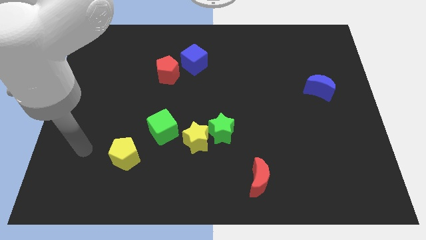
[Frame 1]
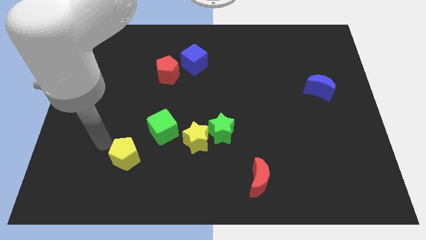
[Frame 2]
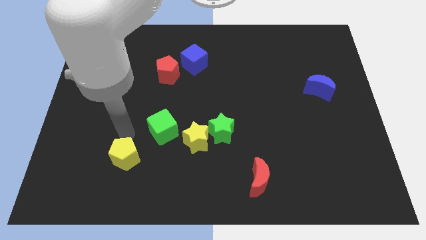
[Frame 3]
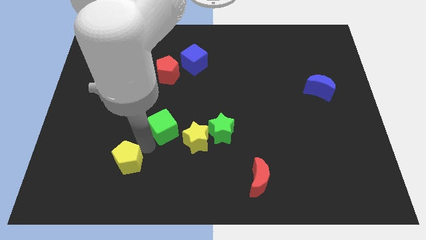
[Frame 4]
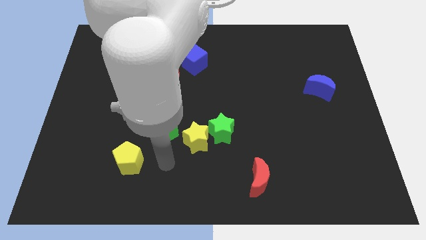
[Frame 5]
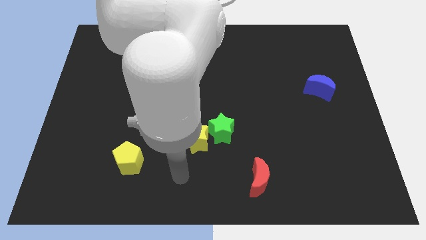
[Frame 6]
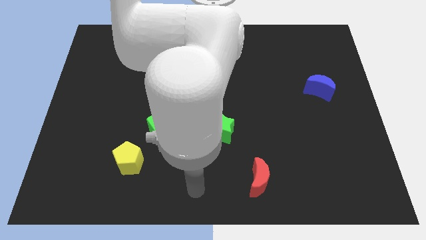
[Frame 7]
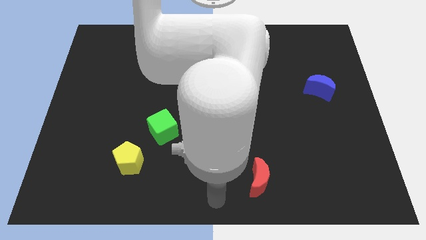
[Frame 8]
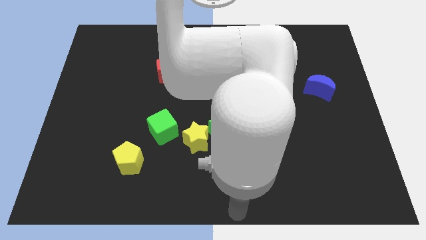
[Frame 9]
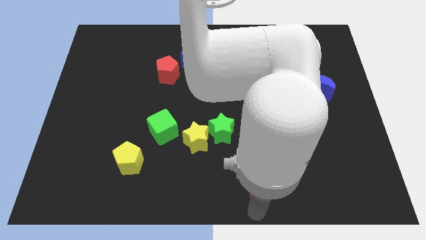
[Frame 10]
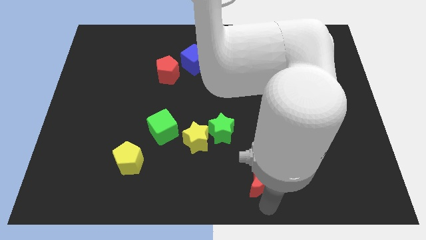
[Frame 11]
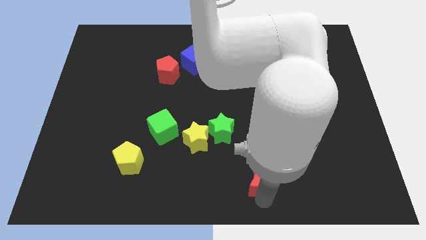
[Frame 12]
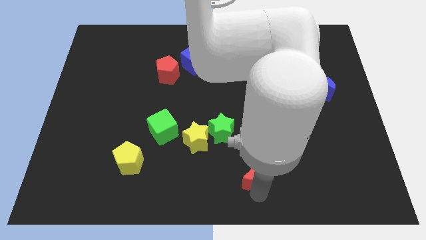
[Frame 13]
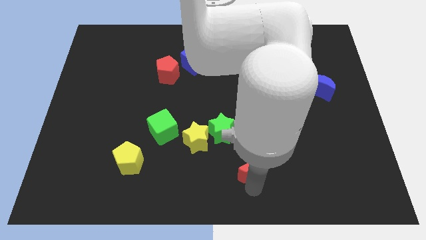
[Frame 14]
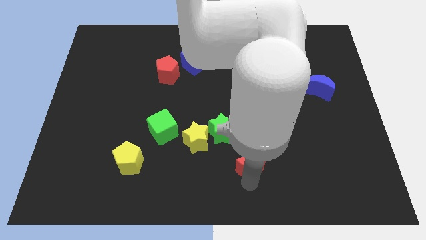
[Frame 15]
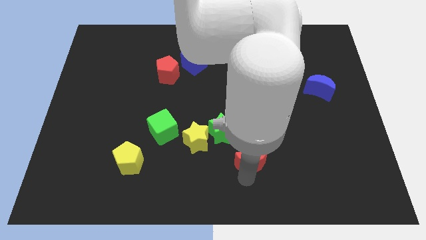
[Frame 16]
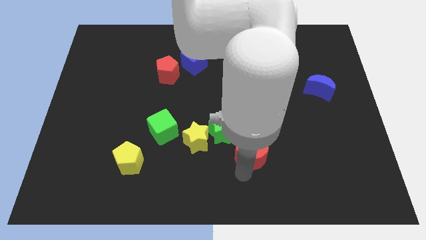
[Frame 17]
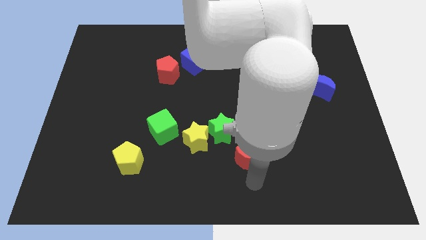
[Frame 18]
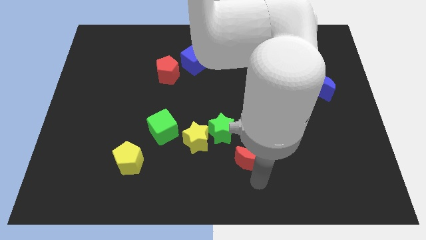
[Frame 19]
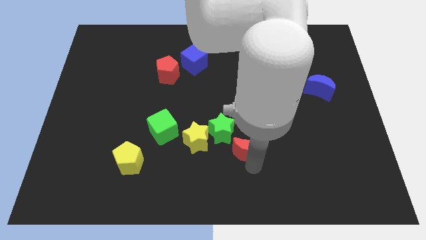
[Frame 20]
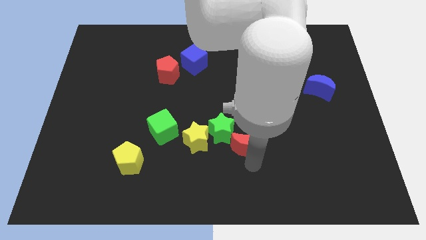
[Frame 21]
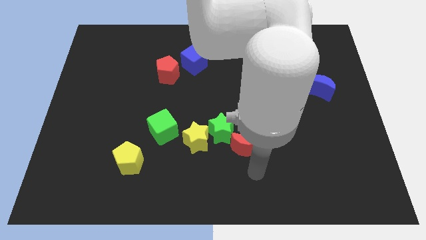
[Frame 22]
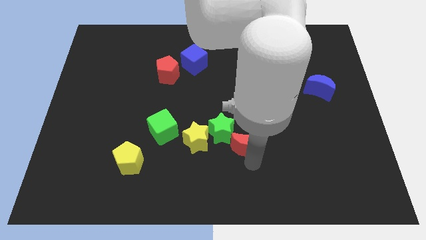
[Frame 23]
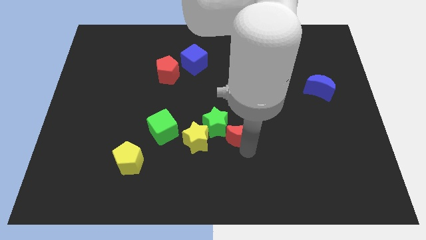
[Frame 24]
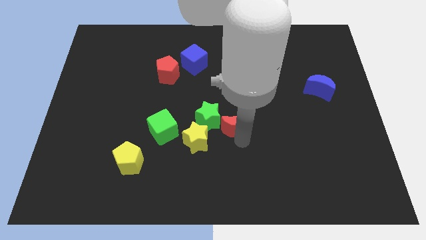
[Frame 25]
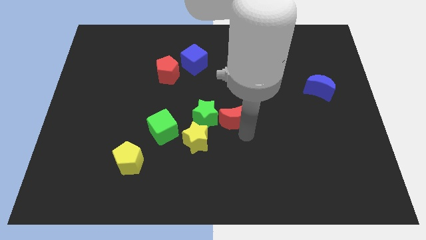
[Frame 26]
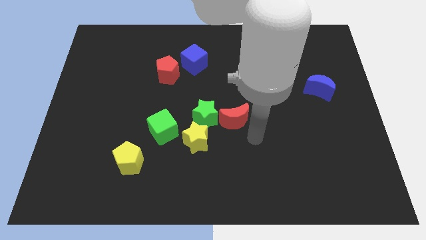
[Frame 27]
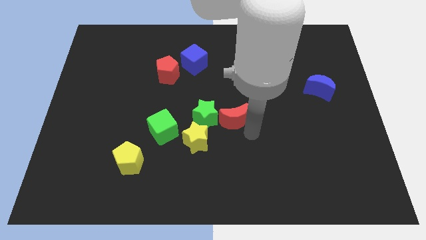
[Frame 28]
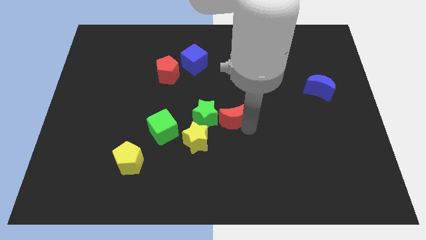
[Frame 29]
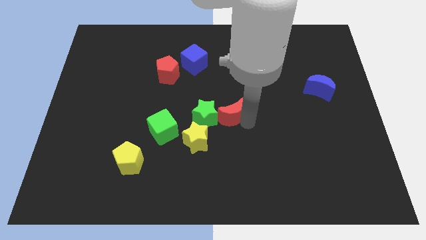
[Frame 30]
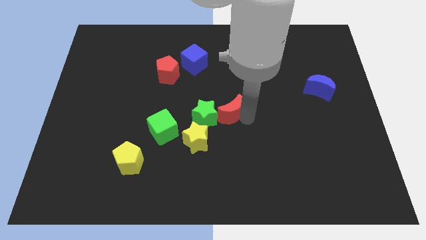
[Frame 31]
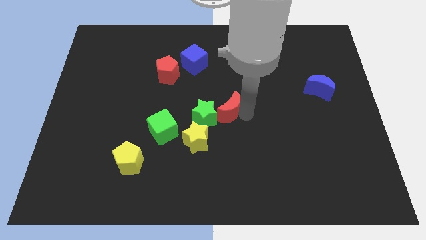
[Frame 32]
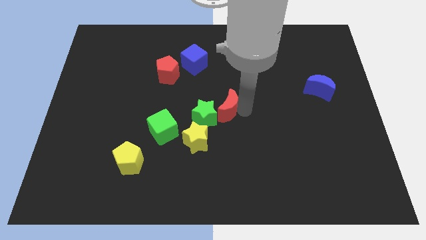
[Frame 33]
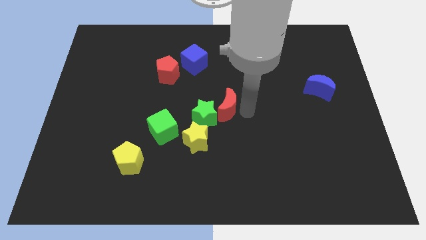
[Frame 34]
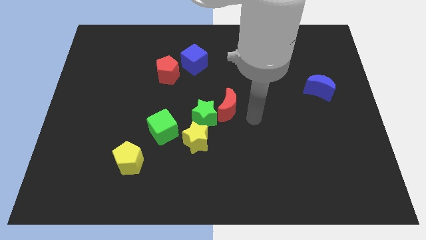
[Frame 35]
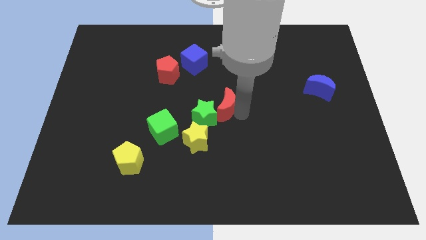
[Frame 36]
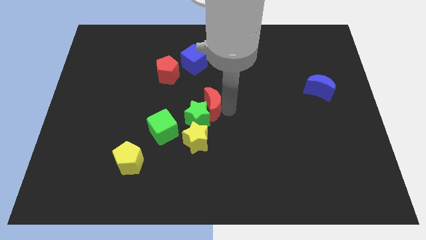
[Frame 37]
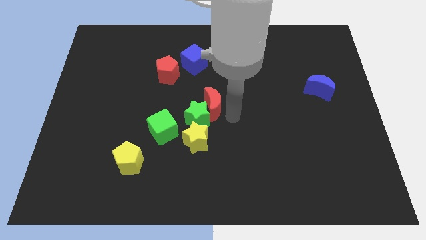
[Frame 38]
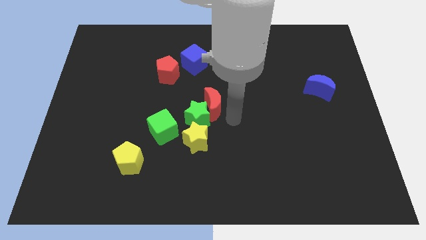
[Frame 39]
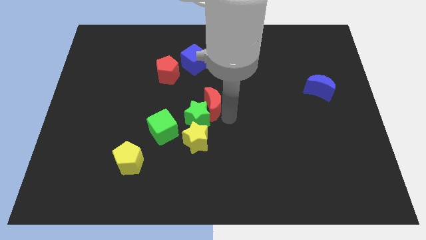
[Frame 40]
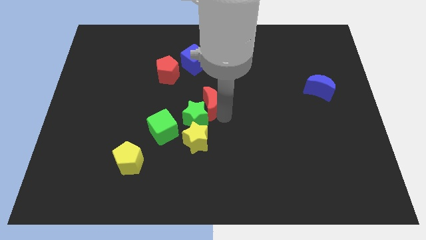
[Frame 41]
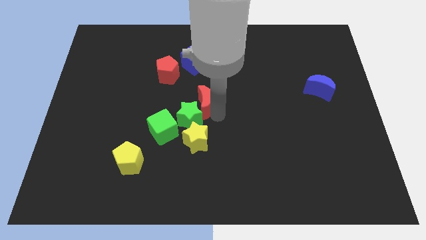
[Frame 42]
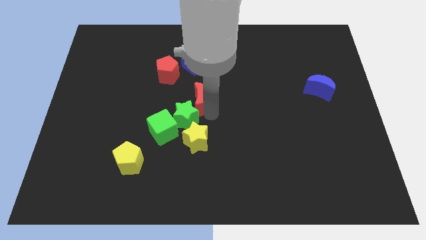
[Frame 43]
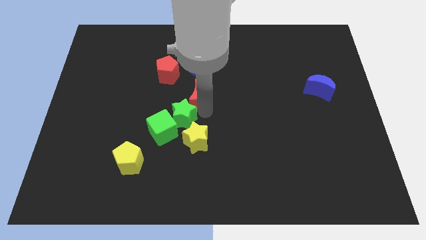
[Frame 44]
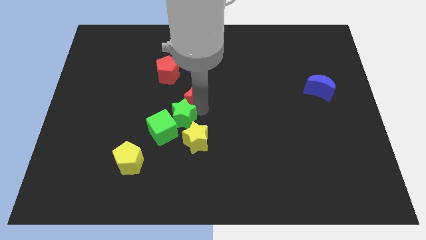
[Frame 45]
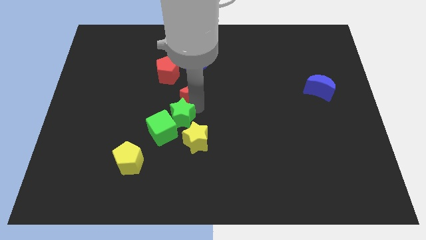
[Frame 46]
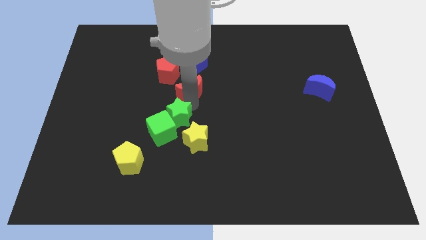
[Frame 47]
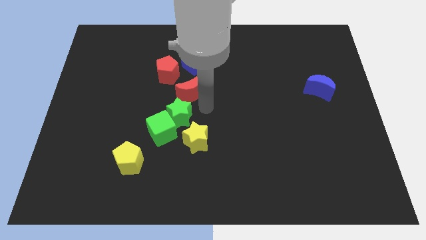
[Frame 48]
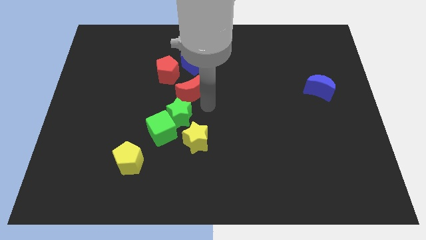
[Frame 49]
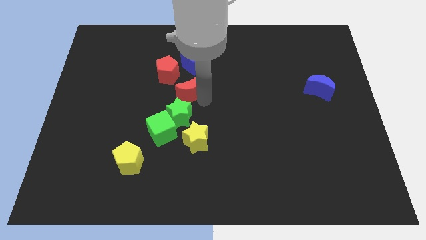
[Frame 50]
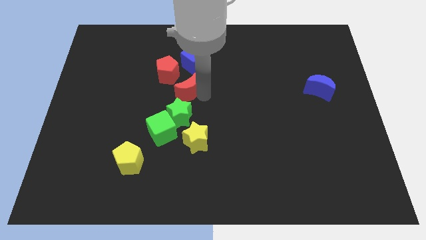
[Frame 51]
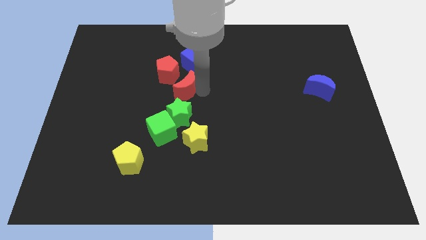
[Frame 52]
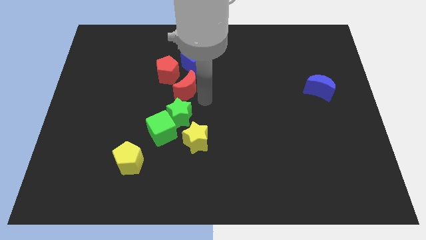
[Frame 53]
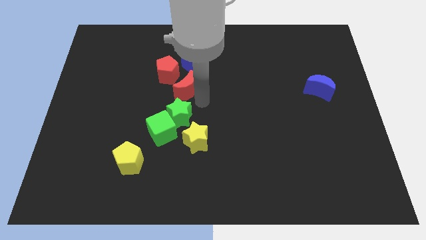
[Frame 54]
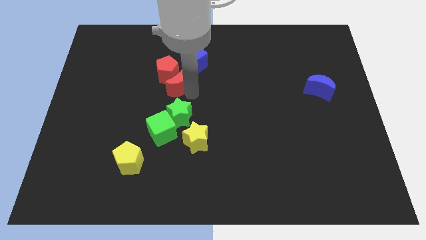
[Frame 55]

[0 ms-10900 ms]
slide the red moon next to the red pentagon

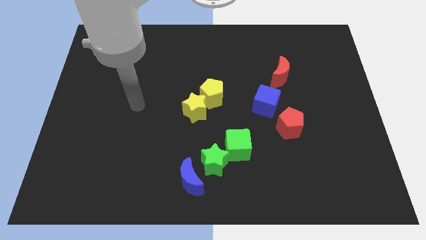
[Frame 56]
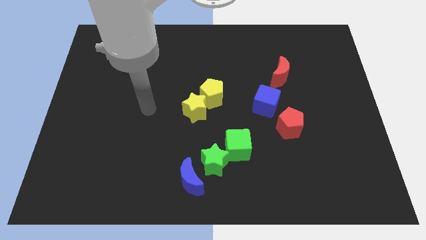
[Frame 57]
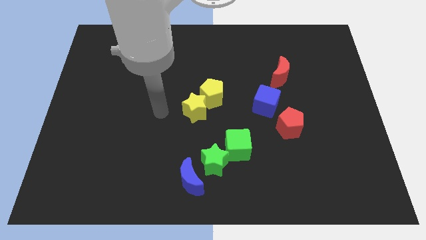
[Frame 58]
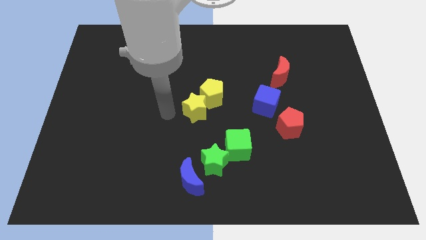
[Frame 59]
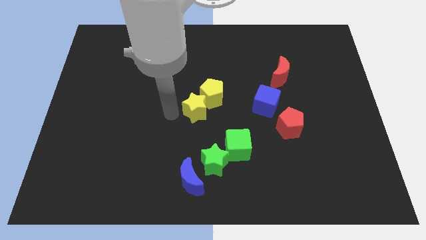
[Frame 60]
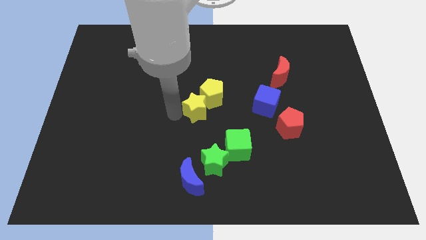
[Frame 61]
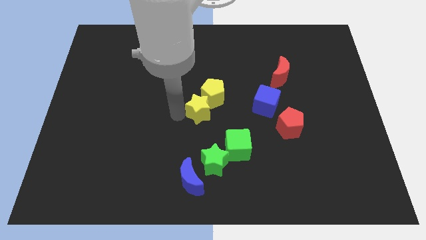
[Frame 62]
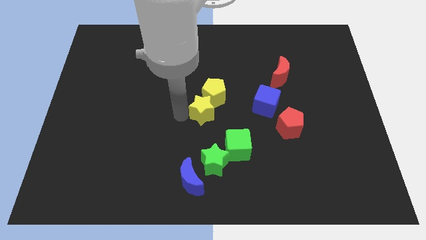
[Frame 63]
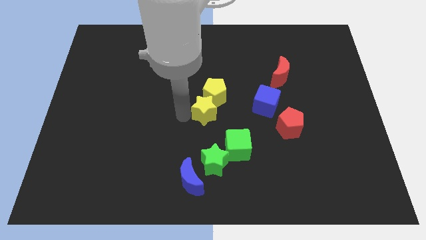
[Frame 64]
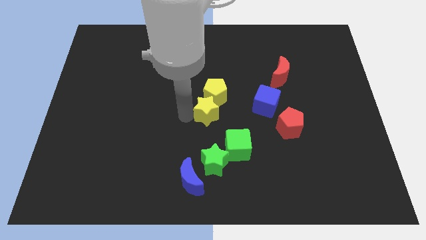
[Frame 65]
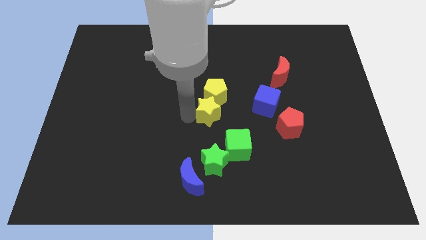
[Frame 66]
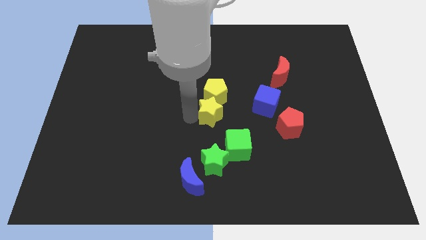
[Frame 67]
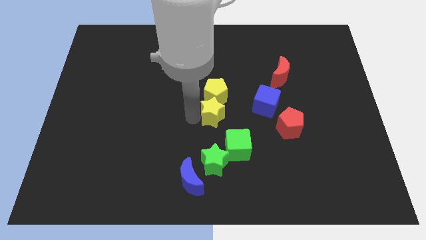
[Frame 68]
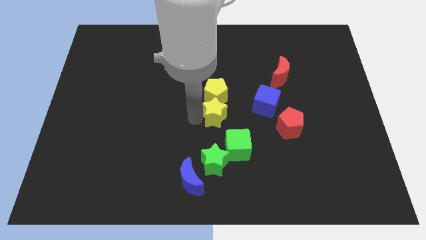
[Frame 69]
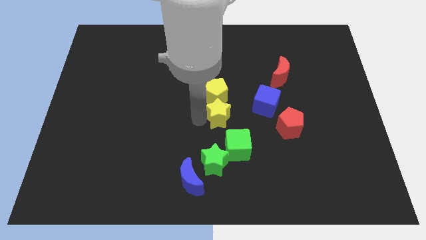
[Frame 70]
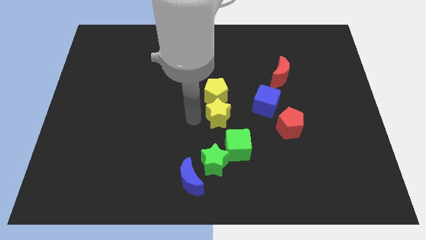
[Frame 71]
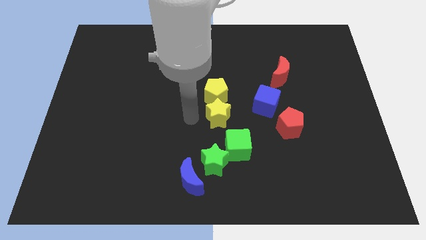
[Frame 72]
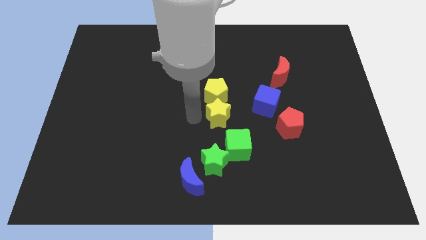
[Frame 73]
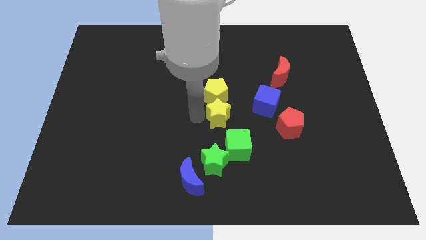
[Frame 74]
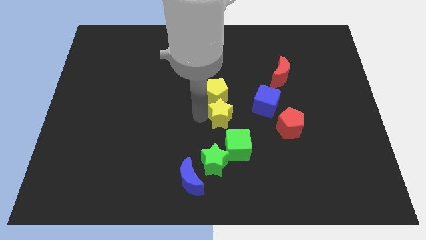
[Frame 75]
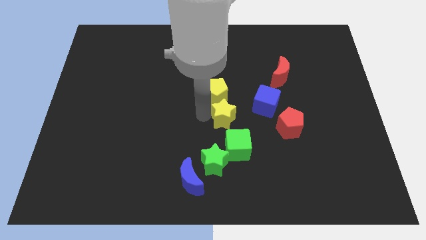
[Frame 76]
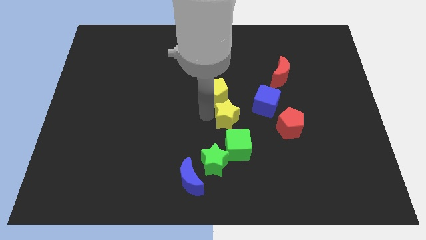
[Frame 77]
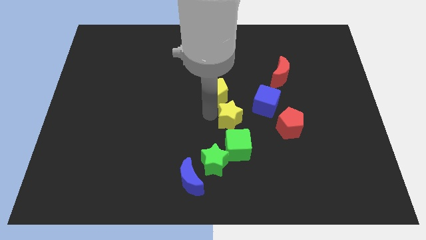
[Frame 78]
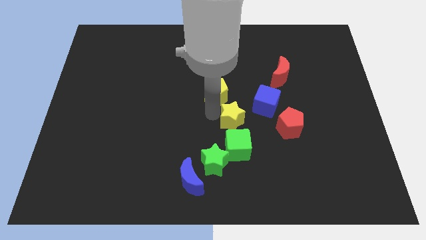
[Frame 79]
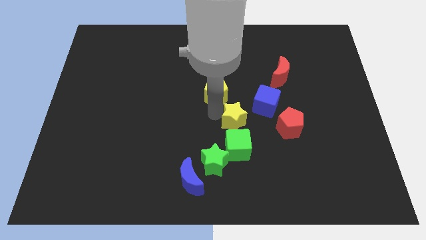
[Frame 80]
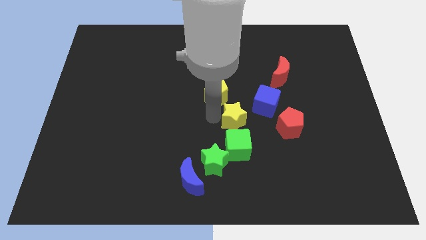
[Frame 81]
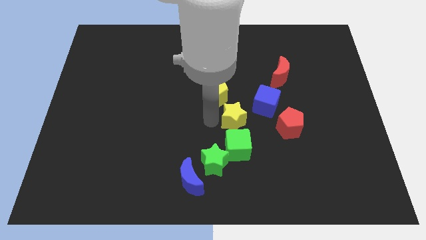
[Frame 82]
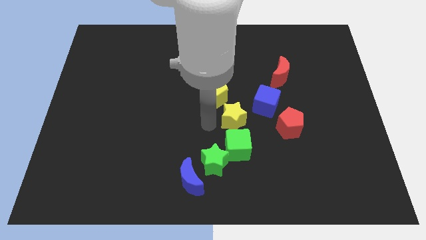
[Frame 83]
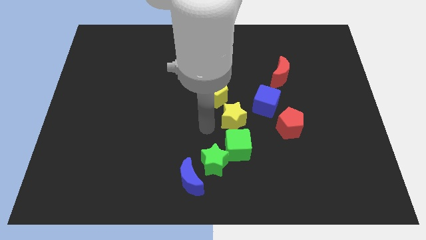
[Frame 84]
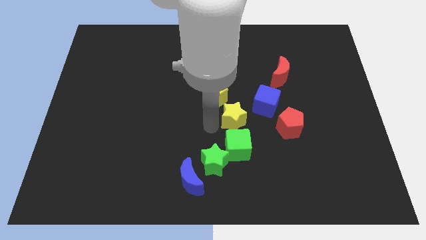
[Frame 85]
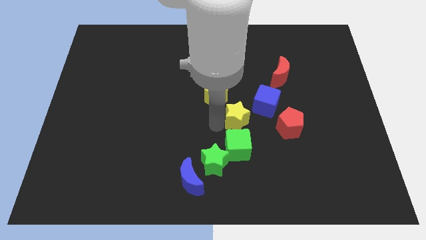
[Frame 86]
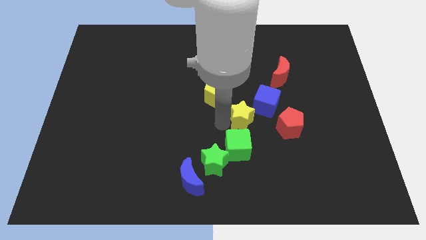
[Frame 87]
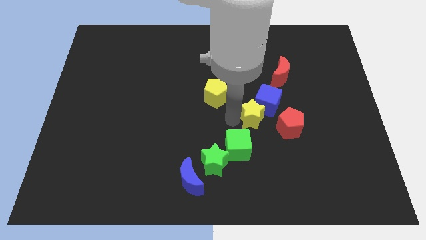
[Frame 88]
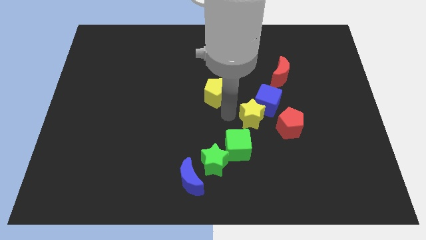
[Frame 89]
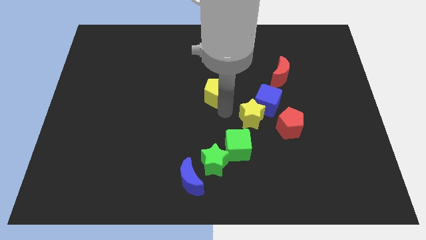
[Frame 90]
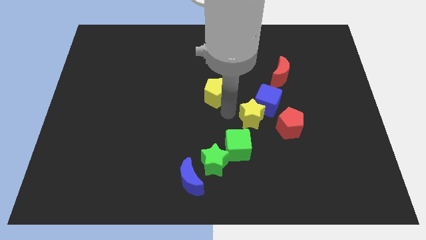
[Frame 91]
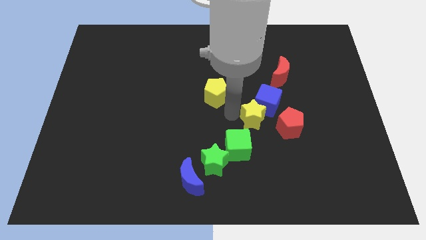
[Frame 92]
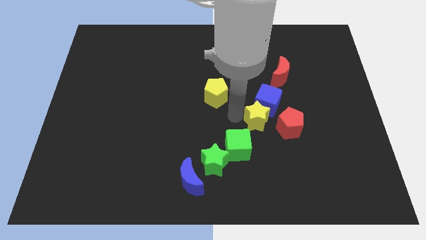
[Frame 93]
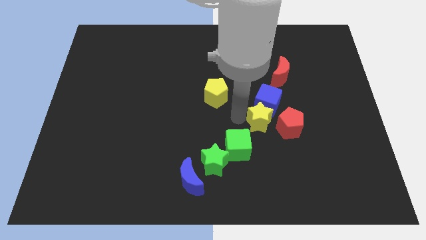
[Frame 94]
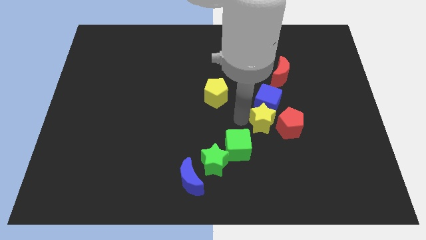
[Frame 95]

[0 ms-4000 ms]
put the yellow star towards the red pentagon
